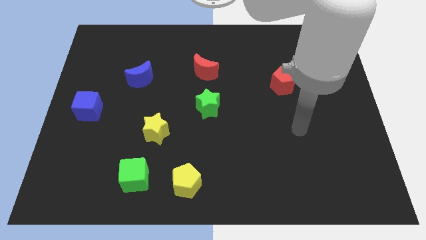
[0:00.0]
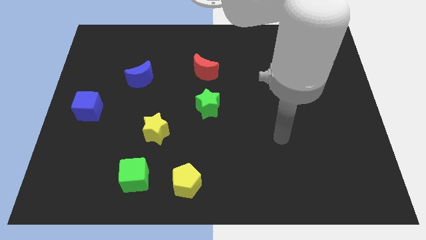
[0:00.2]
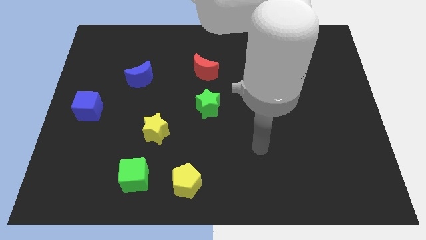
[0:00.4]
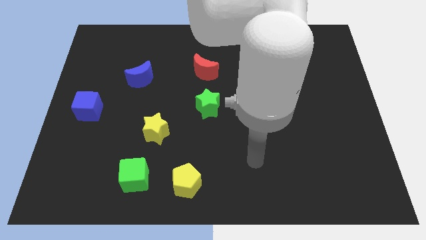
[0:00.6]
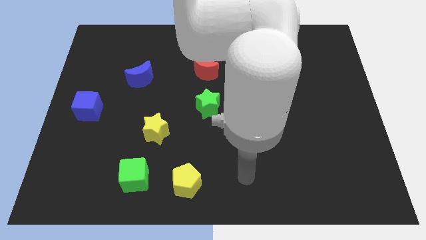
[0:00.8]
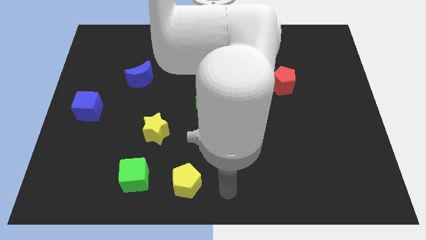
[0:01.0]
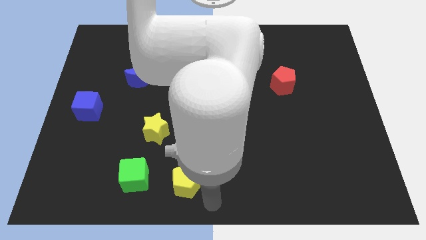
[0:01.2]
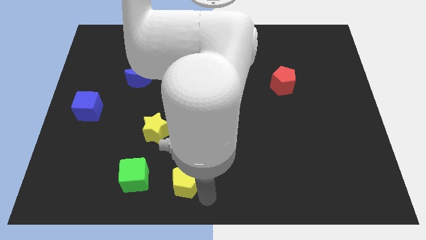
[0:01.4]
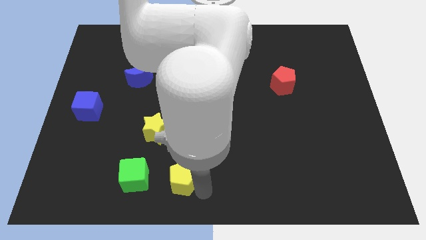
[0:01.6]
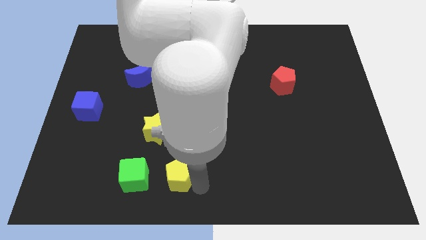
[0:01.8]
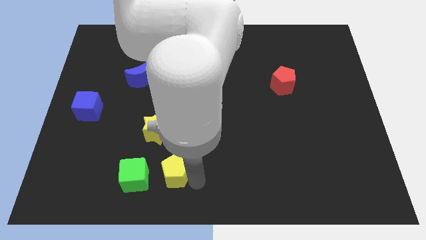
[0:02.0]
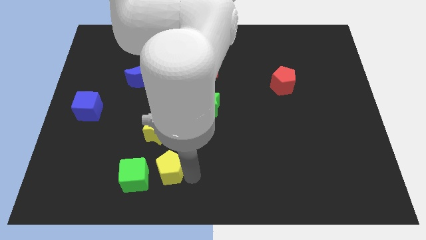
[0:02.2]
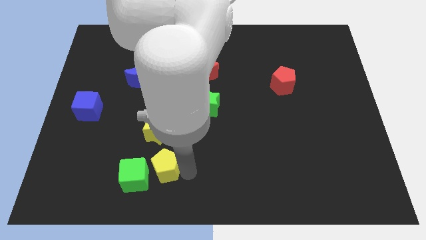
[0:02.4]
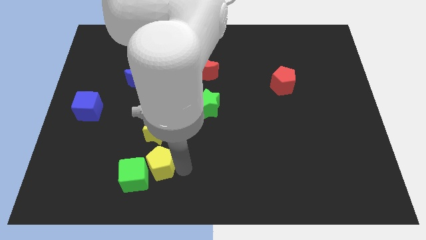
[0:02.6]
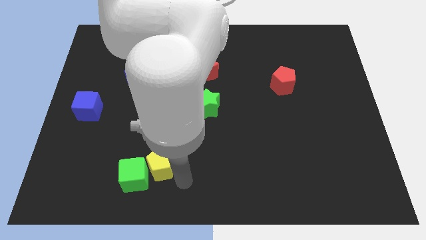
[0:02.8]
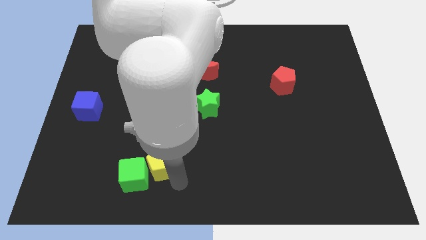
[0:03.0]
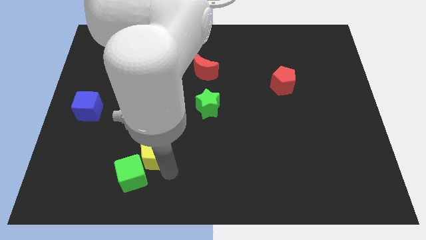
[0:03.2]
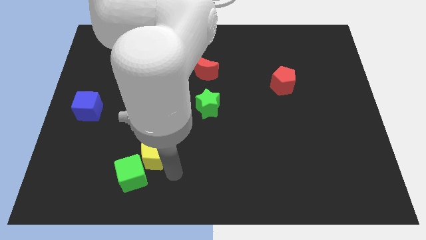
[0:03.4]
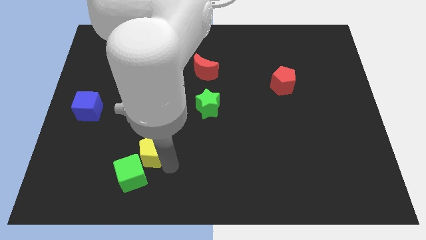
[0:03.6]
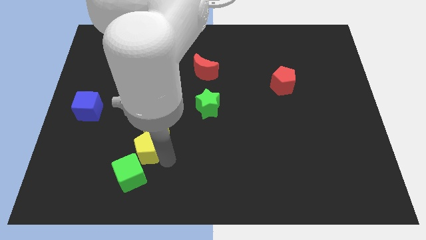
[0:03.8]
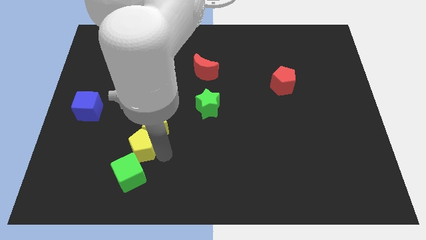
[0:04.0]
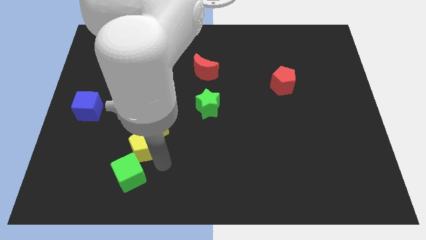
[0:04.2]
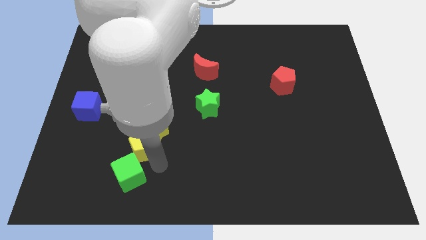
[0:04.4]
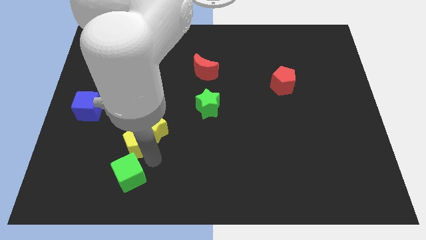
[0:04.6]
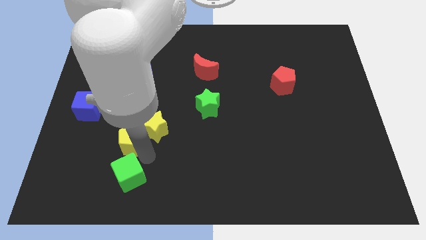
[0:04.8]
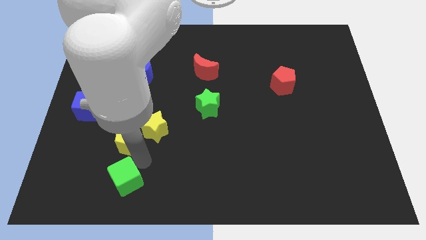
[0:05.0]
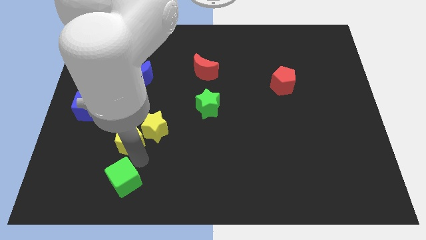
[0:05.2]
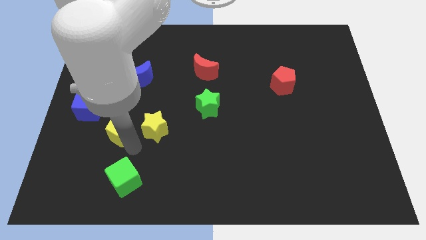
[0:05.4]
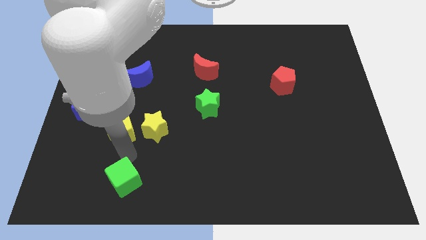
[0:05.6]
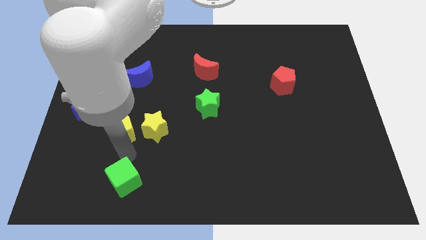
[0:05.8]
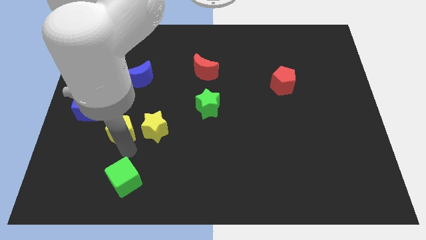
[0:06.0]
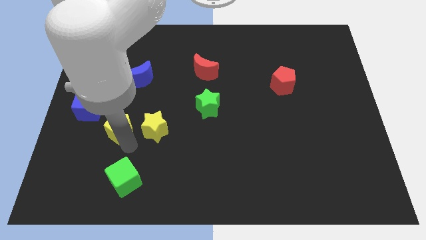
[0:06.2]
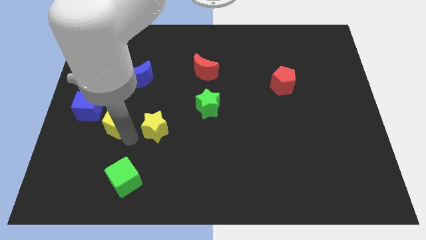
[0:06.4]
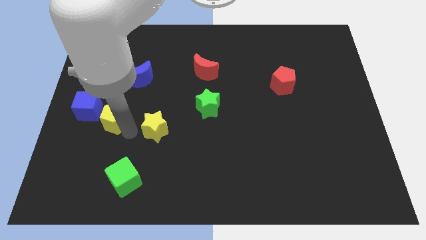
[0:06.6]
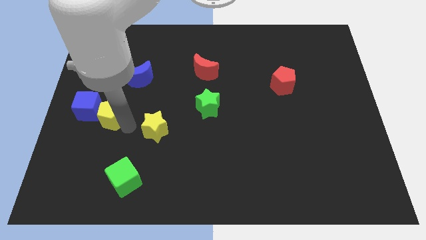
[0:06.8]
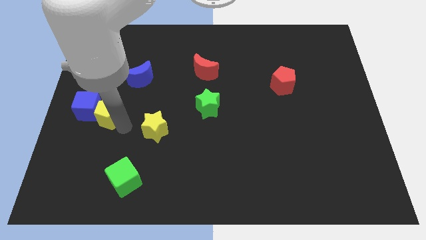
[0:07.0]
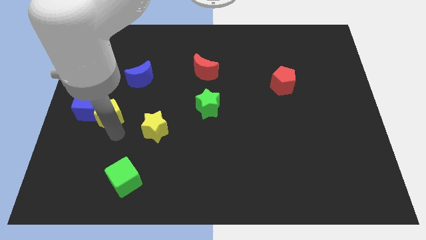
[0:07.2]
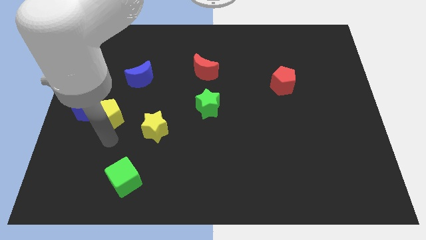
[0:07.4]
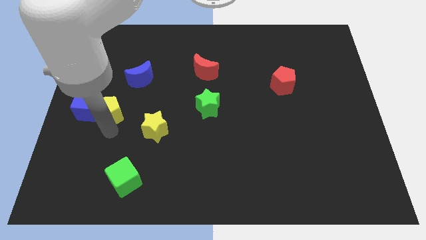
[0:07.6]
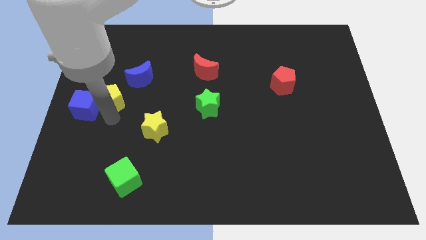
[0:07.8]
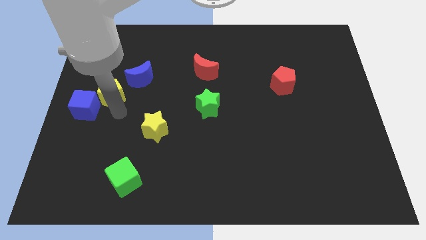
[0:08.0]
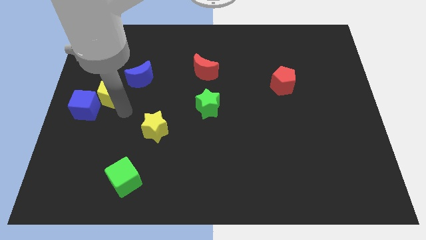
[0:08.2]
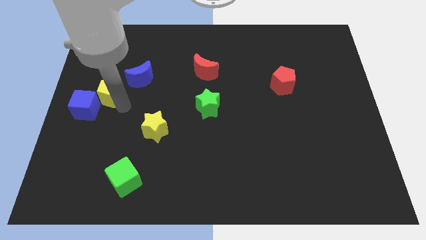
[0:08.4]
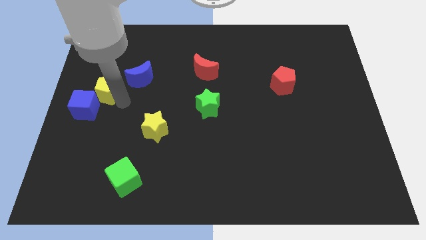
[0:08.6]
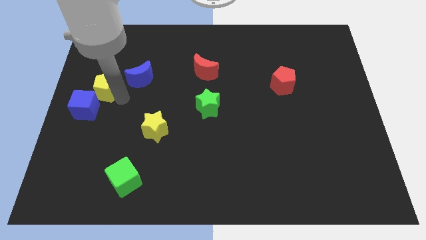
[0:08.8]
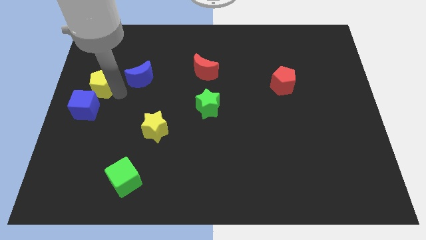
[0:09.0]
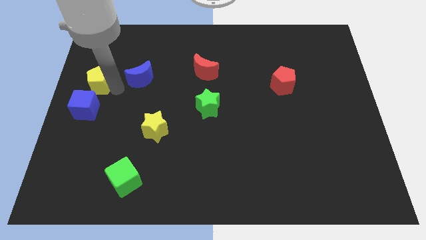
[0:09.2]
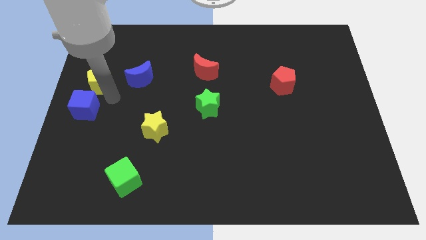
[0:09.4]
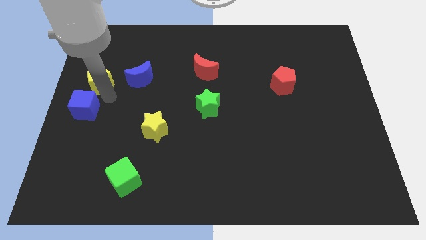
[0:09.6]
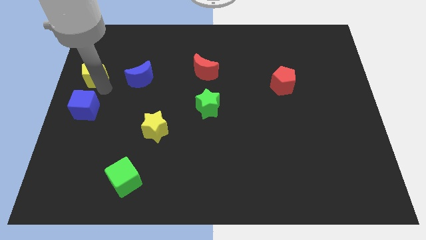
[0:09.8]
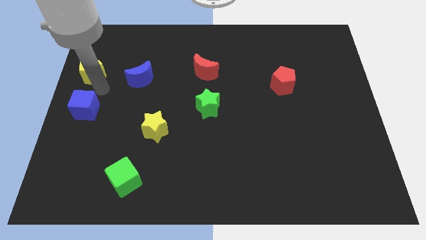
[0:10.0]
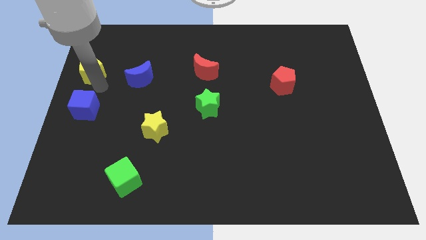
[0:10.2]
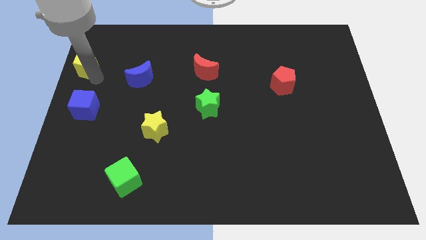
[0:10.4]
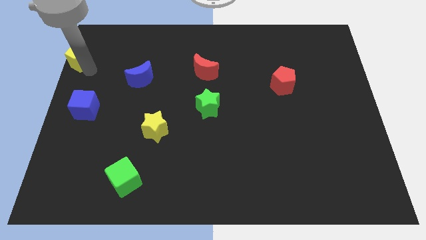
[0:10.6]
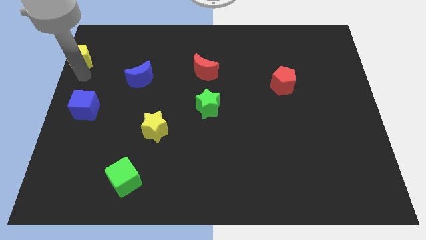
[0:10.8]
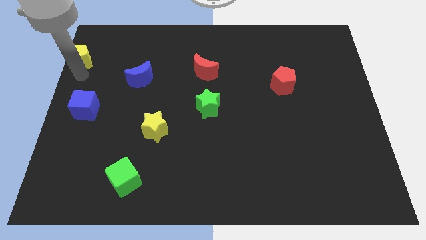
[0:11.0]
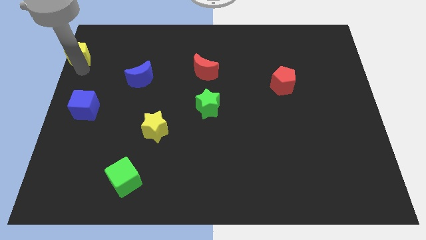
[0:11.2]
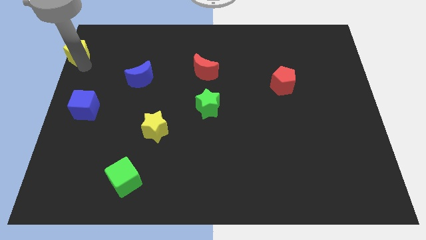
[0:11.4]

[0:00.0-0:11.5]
slide the yellow pentagon to the top left

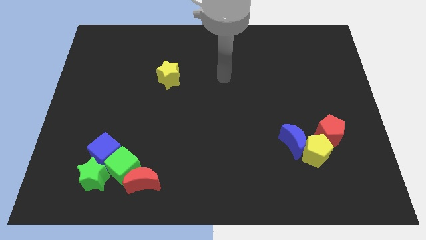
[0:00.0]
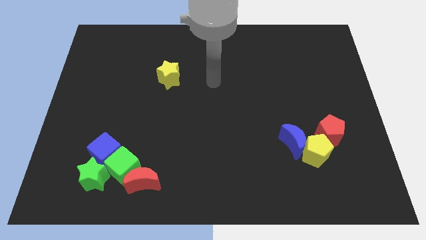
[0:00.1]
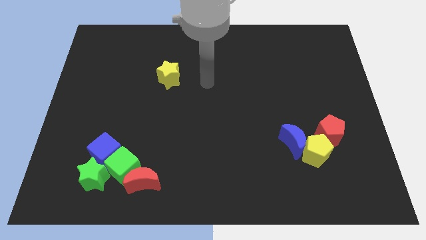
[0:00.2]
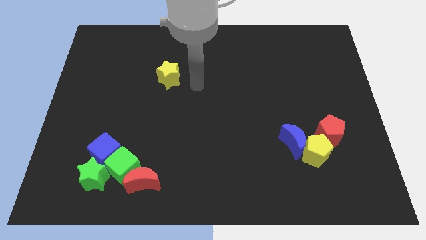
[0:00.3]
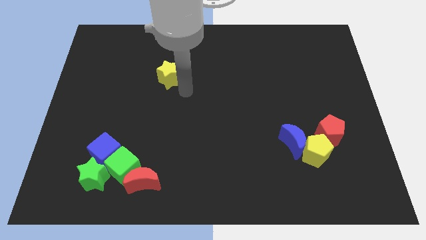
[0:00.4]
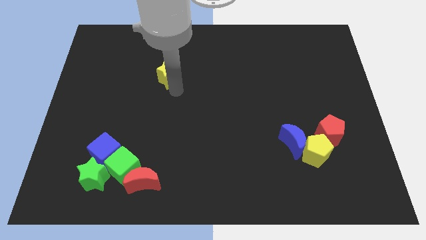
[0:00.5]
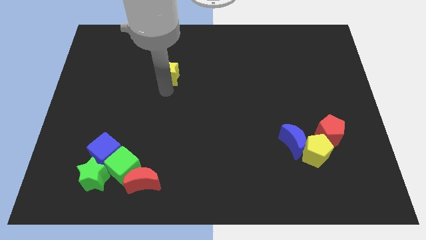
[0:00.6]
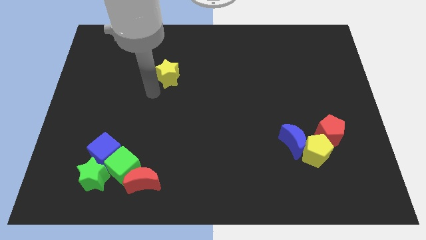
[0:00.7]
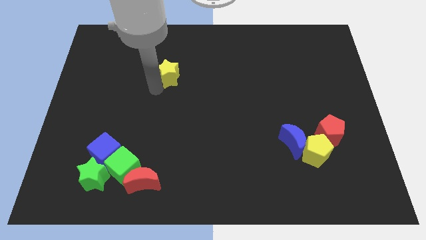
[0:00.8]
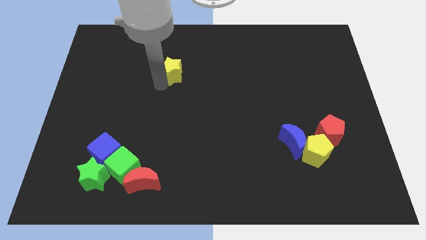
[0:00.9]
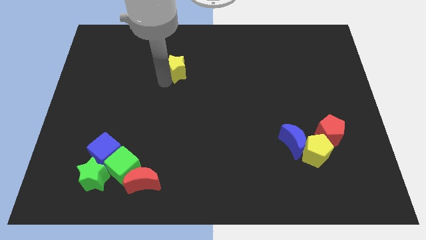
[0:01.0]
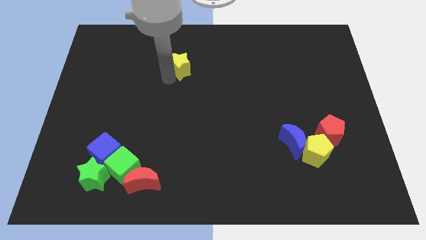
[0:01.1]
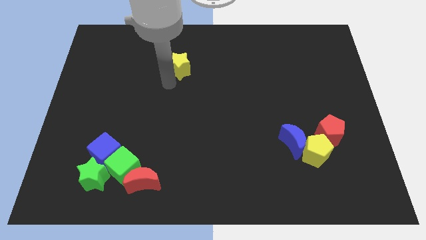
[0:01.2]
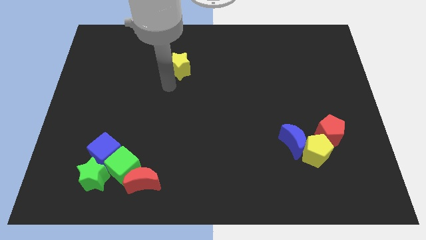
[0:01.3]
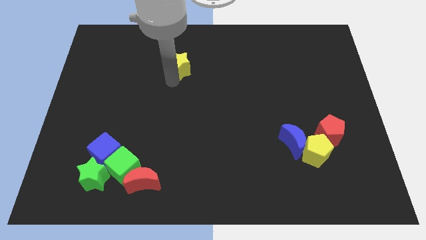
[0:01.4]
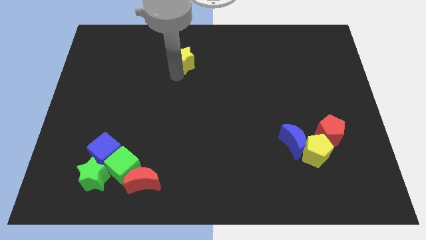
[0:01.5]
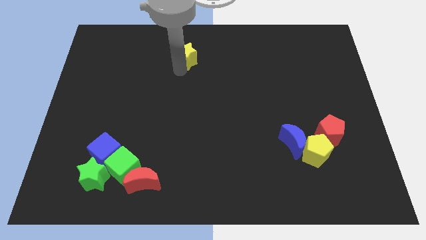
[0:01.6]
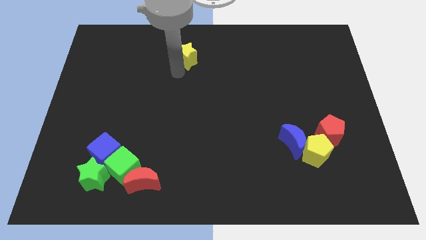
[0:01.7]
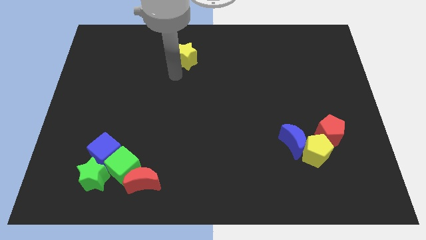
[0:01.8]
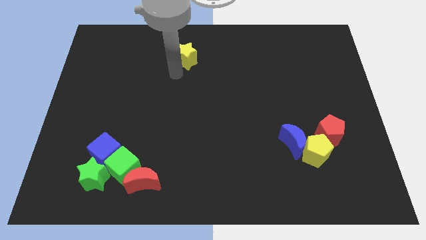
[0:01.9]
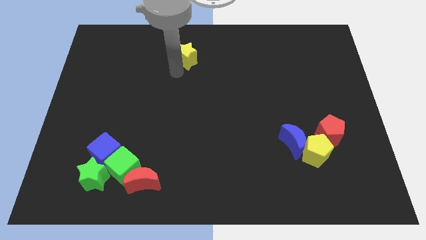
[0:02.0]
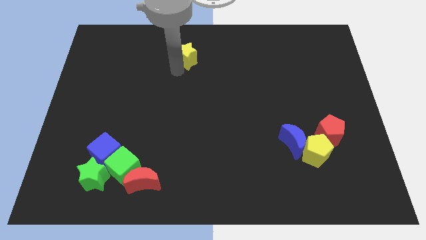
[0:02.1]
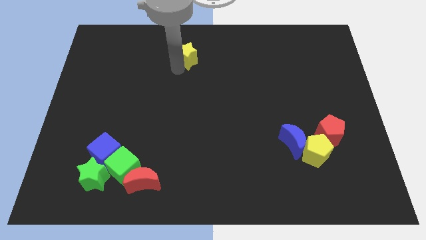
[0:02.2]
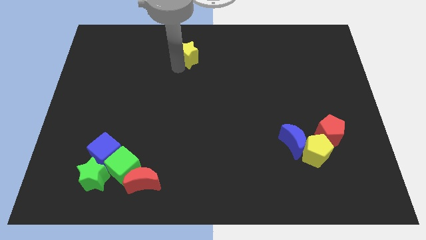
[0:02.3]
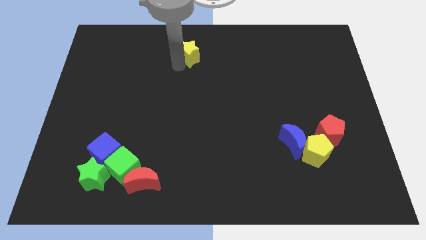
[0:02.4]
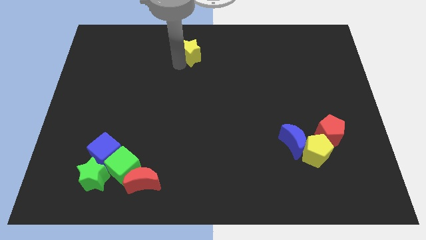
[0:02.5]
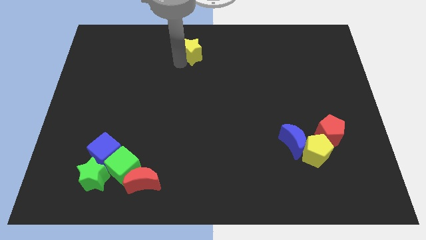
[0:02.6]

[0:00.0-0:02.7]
put the yellow star to the towards your base
